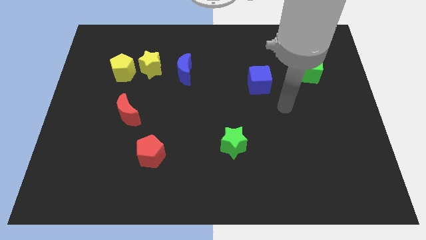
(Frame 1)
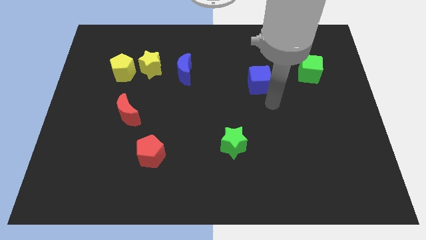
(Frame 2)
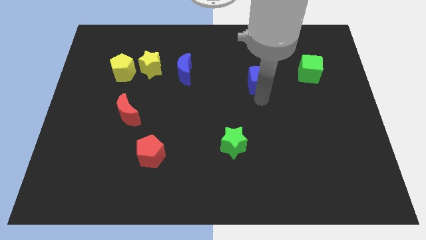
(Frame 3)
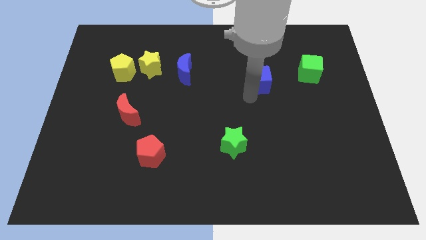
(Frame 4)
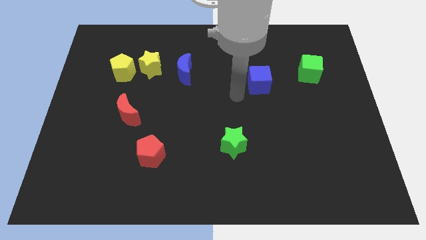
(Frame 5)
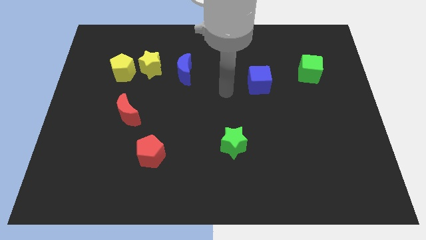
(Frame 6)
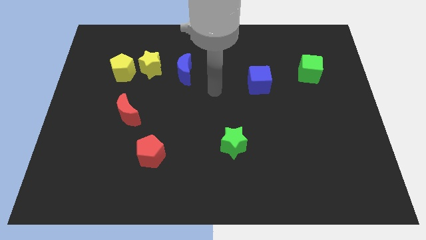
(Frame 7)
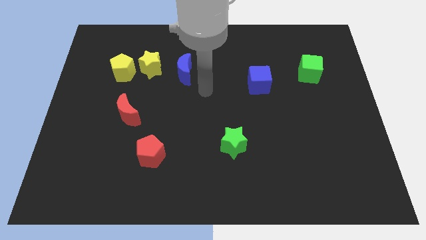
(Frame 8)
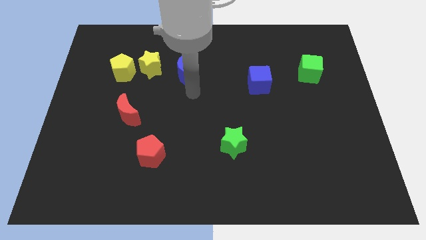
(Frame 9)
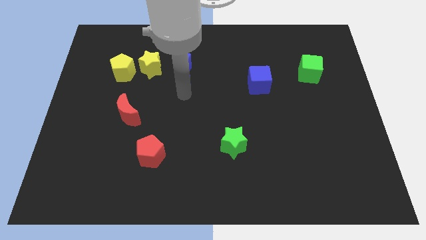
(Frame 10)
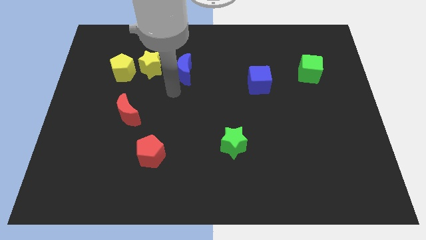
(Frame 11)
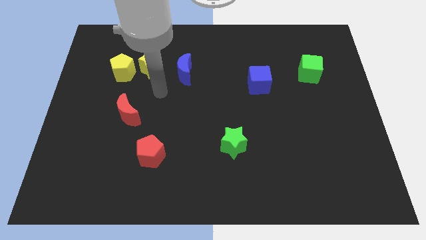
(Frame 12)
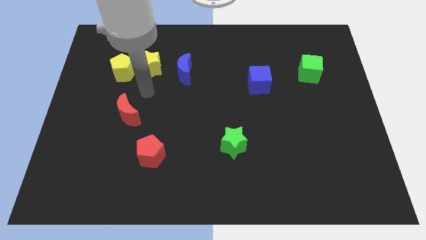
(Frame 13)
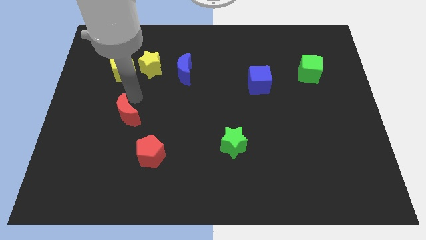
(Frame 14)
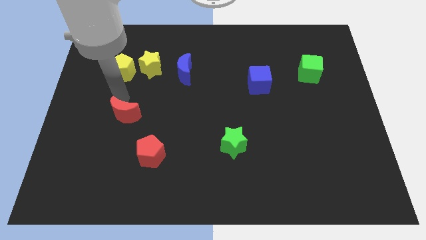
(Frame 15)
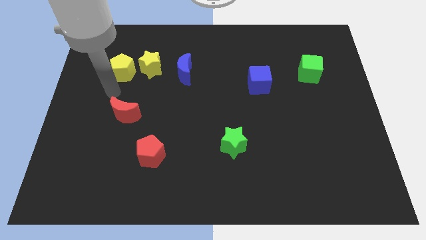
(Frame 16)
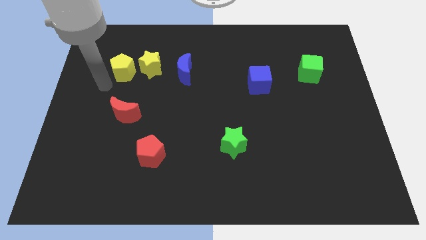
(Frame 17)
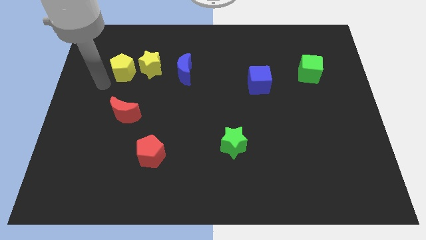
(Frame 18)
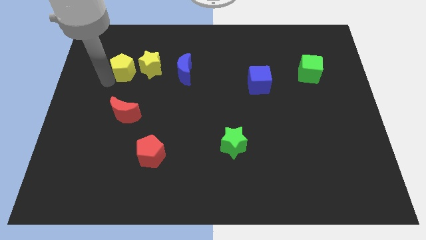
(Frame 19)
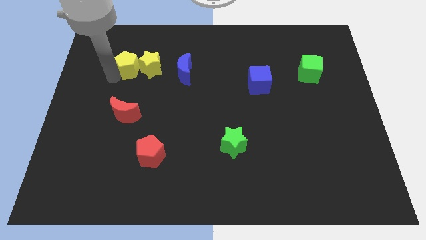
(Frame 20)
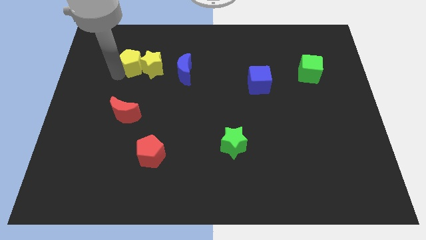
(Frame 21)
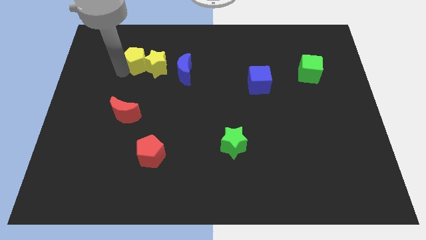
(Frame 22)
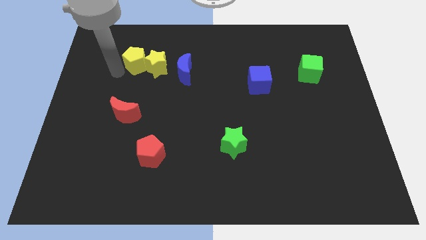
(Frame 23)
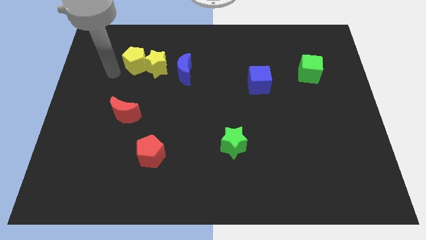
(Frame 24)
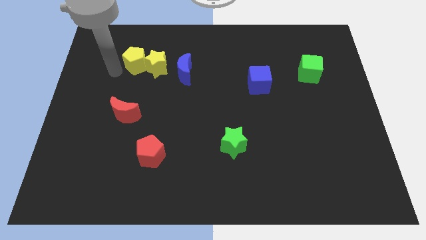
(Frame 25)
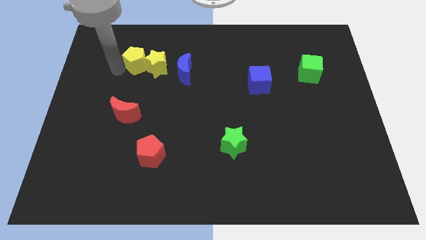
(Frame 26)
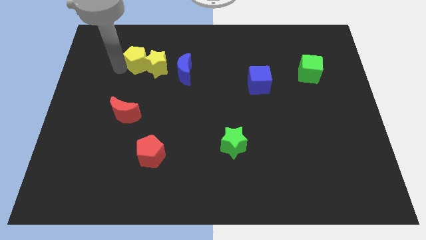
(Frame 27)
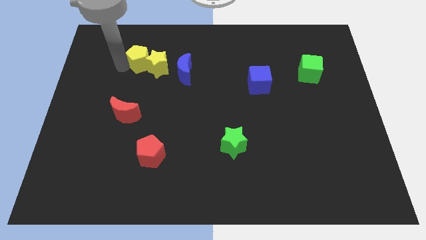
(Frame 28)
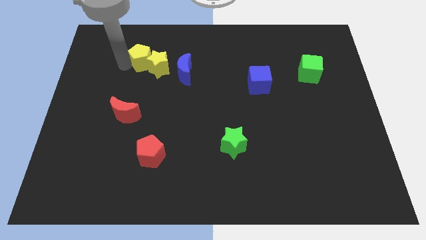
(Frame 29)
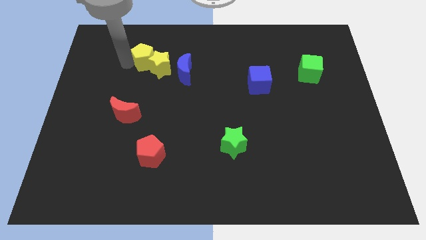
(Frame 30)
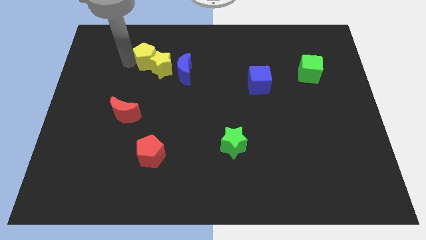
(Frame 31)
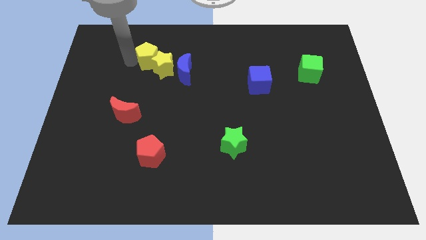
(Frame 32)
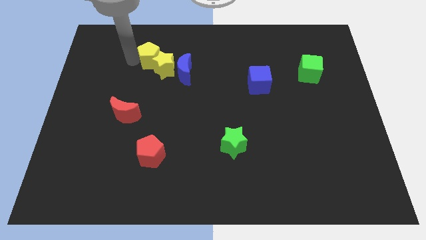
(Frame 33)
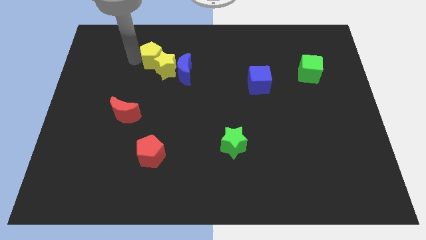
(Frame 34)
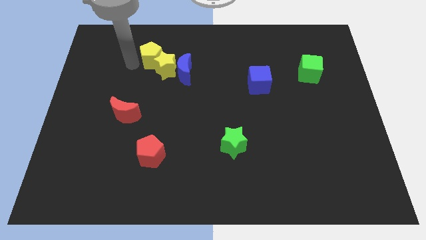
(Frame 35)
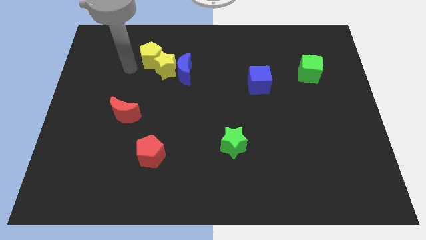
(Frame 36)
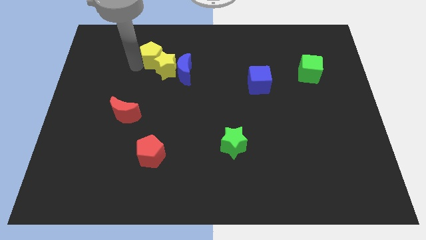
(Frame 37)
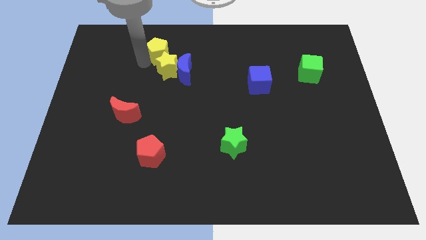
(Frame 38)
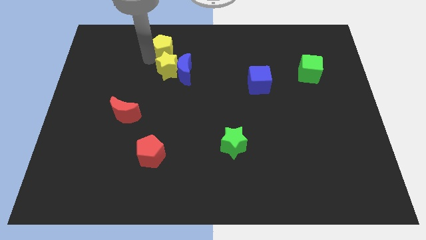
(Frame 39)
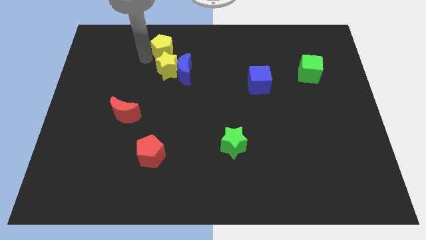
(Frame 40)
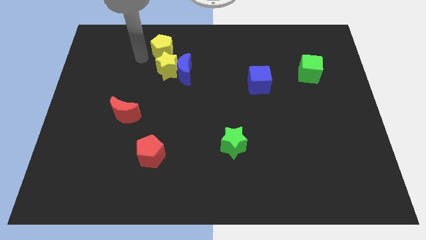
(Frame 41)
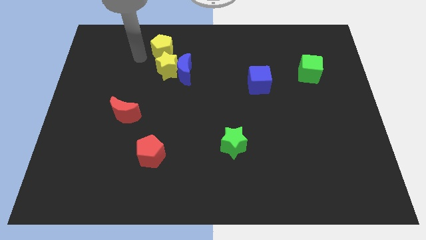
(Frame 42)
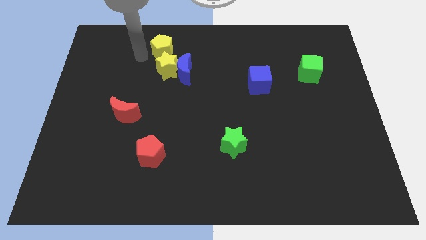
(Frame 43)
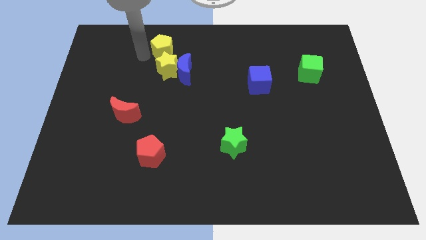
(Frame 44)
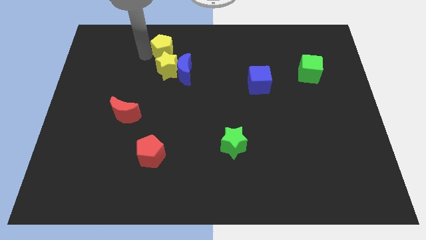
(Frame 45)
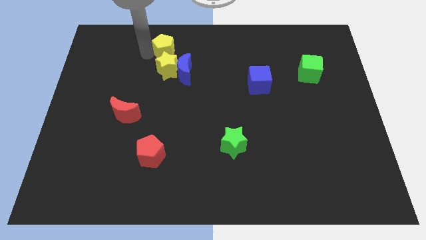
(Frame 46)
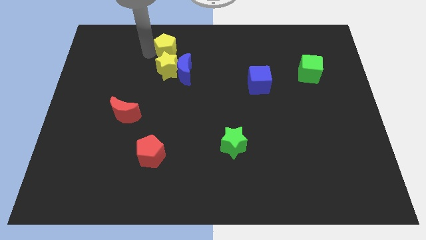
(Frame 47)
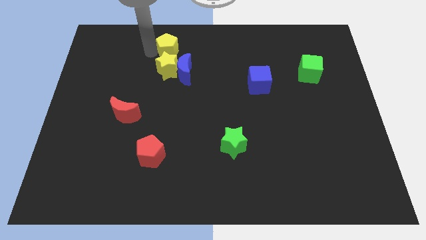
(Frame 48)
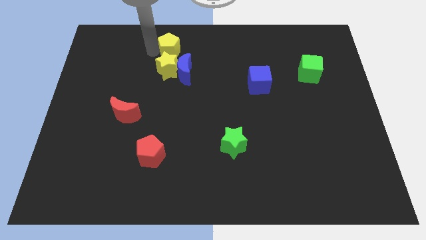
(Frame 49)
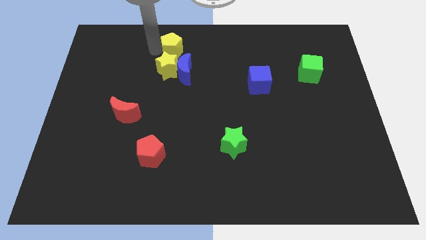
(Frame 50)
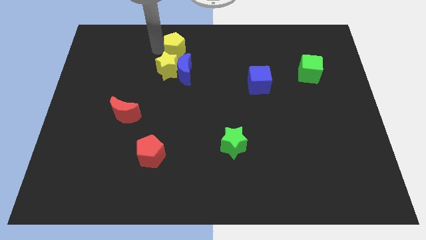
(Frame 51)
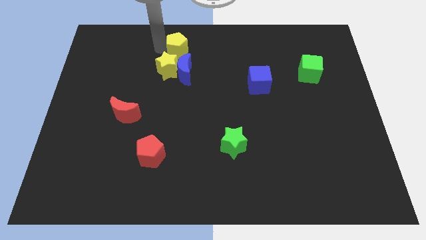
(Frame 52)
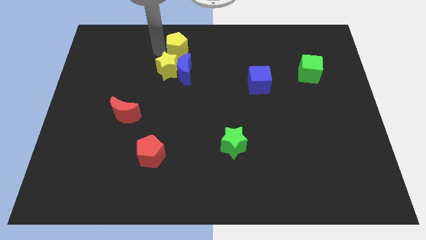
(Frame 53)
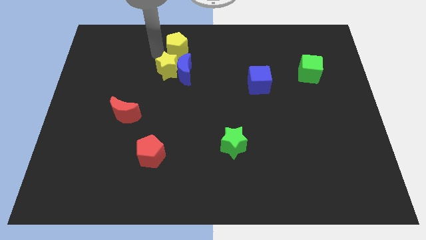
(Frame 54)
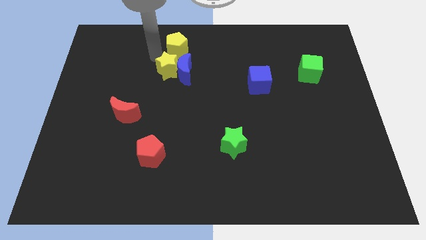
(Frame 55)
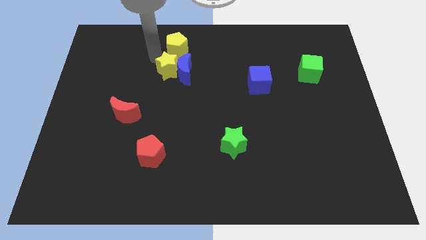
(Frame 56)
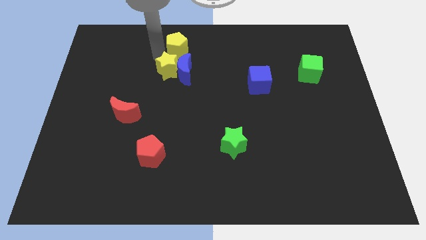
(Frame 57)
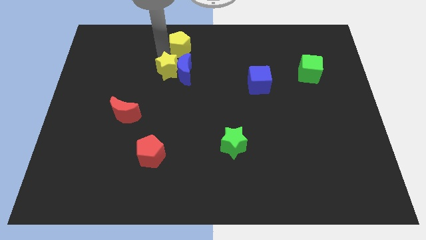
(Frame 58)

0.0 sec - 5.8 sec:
put the yellow pentagon to the top

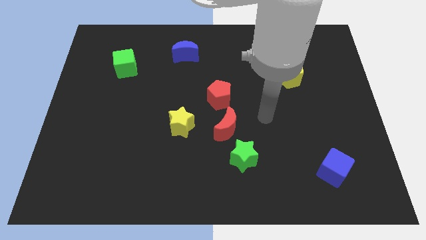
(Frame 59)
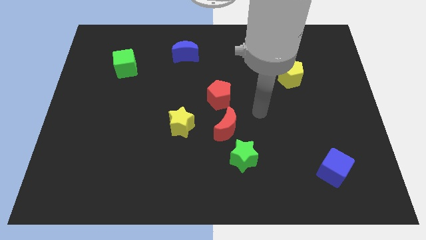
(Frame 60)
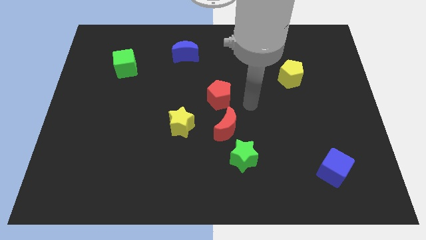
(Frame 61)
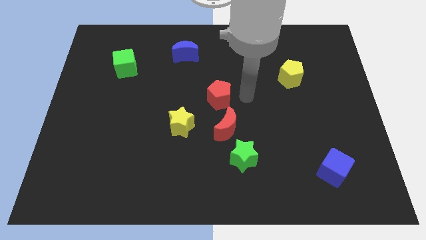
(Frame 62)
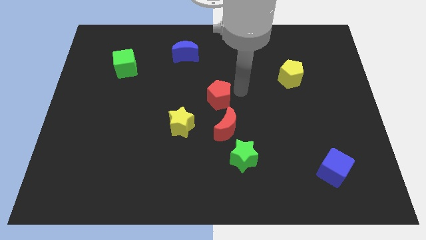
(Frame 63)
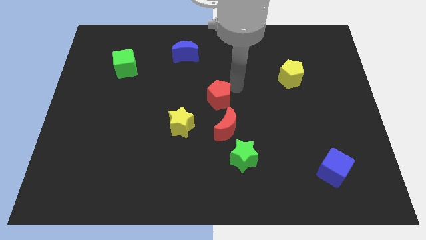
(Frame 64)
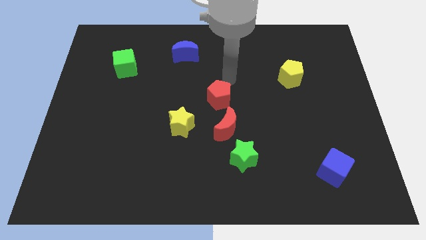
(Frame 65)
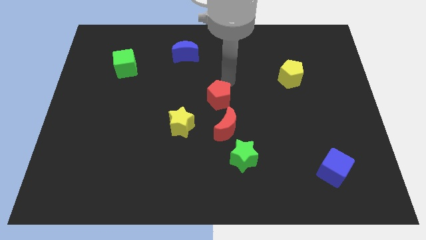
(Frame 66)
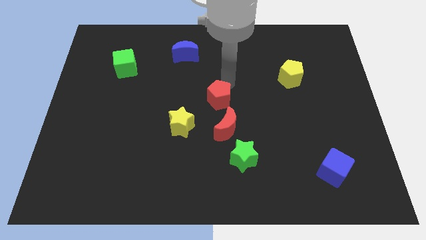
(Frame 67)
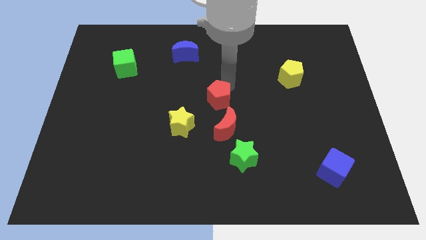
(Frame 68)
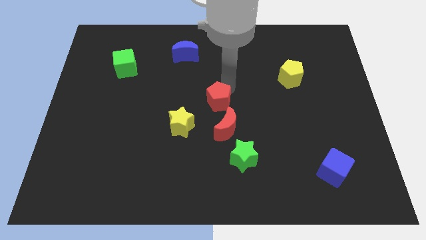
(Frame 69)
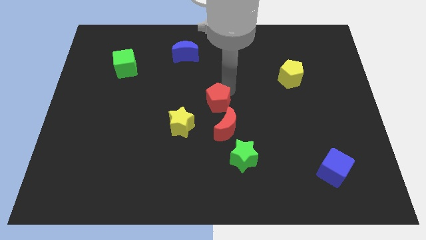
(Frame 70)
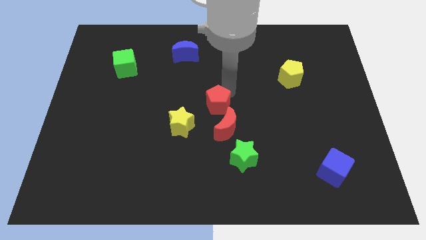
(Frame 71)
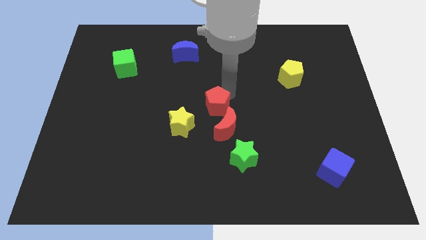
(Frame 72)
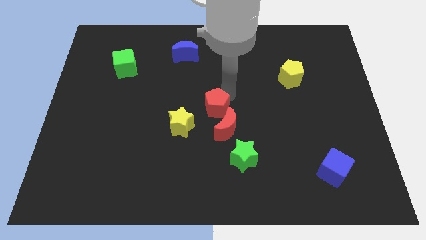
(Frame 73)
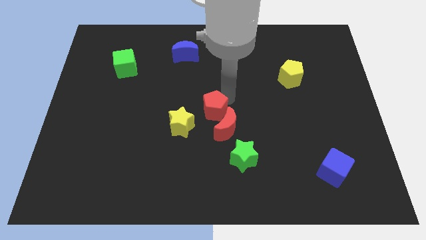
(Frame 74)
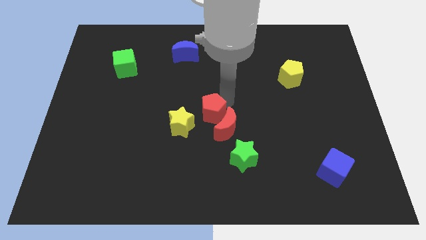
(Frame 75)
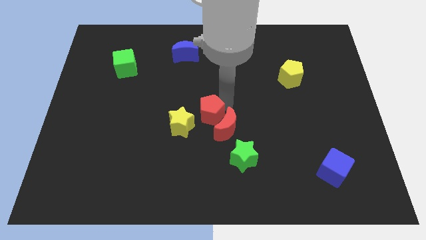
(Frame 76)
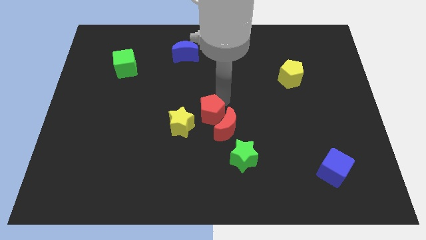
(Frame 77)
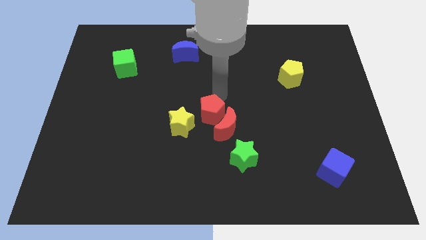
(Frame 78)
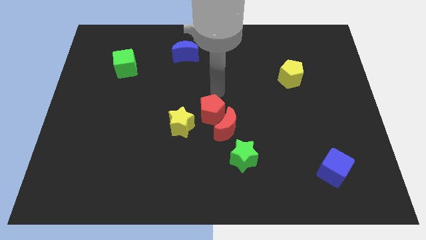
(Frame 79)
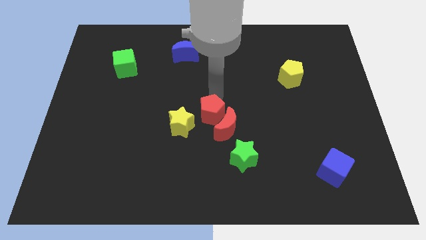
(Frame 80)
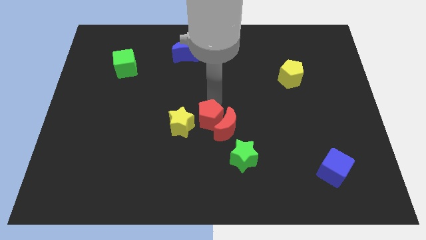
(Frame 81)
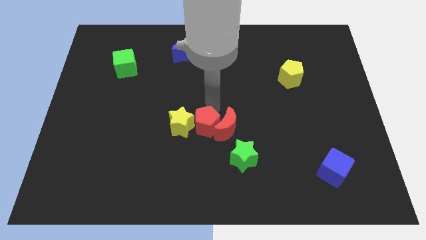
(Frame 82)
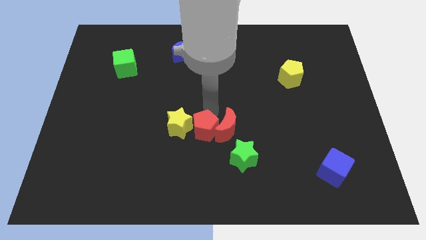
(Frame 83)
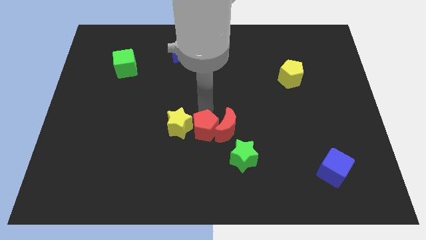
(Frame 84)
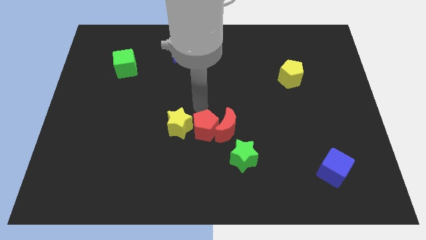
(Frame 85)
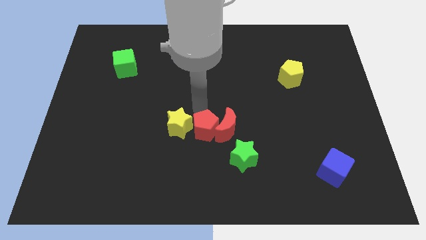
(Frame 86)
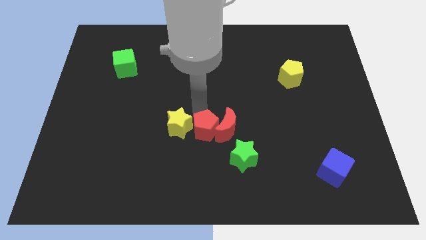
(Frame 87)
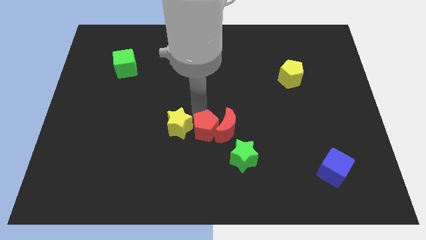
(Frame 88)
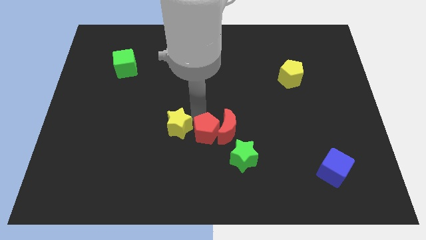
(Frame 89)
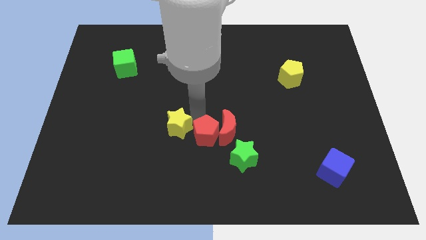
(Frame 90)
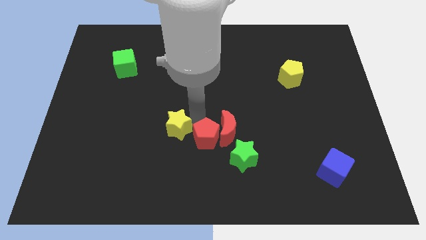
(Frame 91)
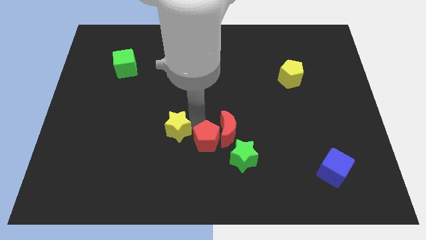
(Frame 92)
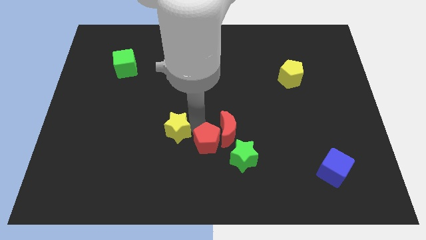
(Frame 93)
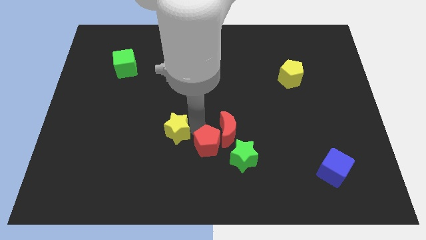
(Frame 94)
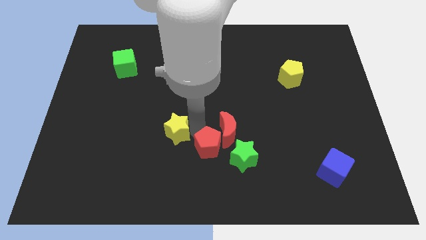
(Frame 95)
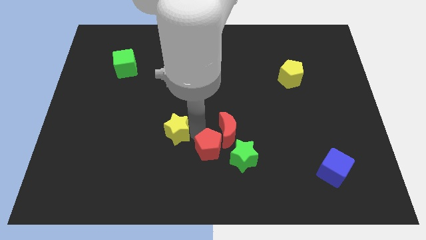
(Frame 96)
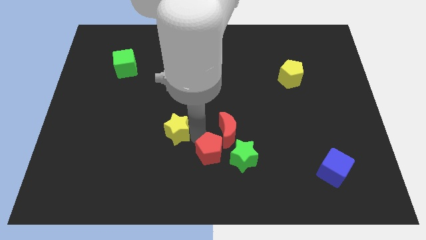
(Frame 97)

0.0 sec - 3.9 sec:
slide the red pentagon to the bottom side
